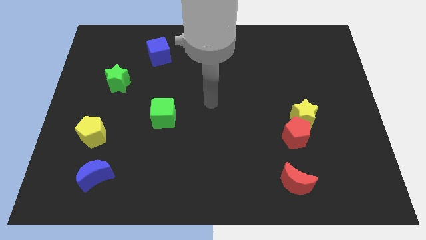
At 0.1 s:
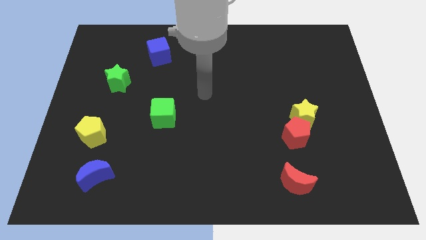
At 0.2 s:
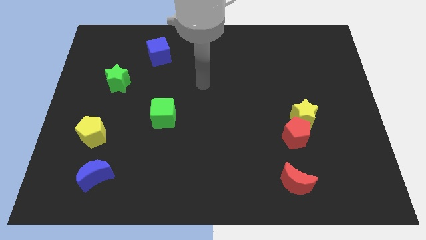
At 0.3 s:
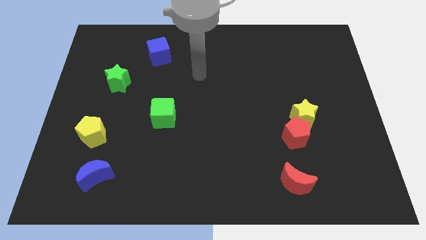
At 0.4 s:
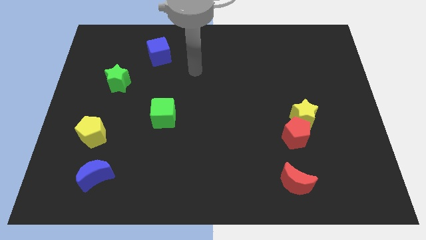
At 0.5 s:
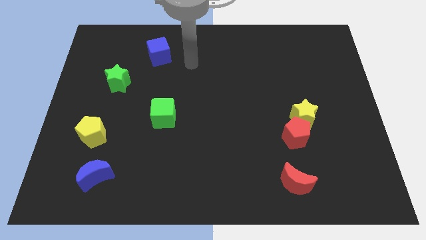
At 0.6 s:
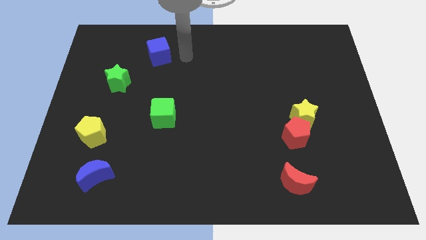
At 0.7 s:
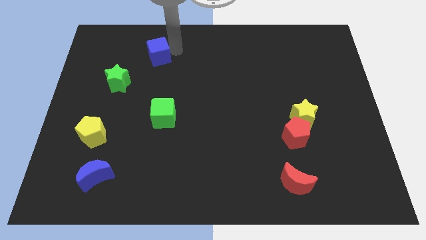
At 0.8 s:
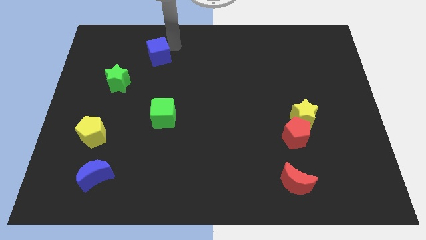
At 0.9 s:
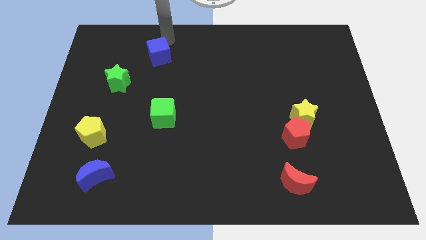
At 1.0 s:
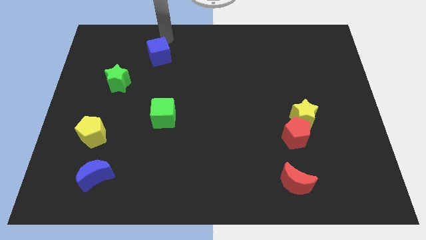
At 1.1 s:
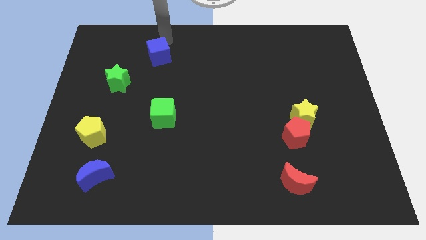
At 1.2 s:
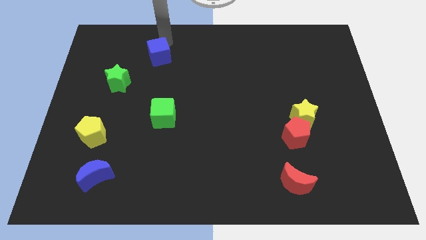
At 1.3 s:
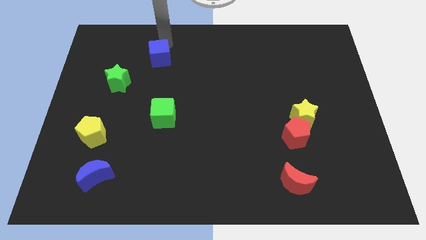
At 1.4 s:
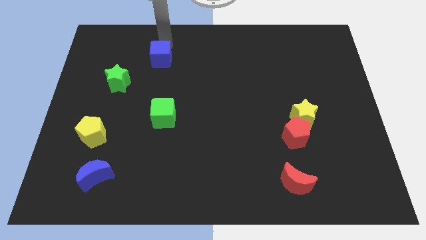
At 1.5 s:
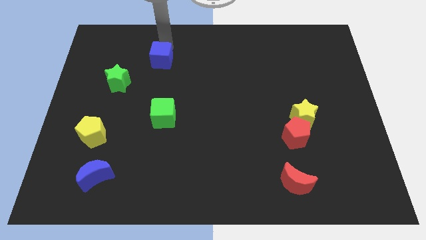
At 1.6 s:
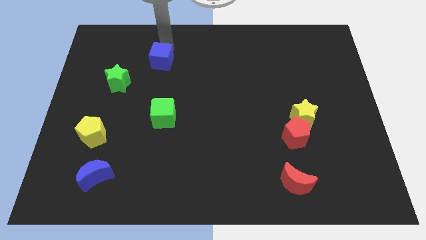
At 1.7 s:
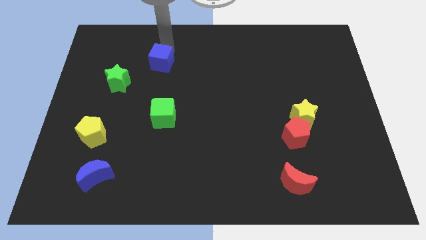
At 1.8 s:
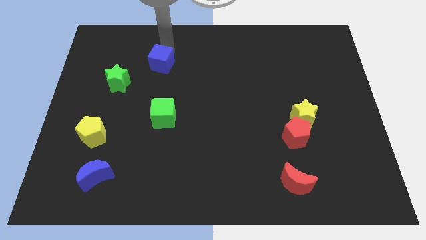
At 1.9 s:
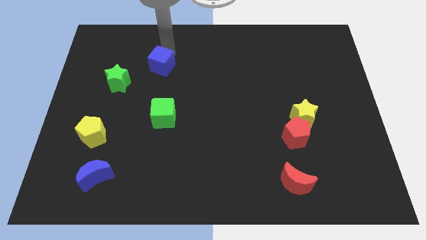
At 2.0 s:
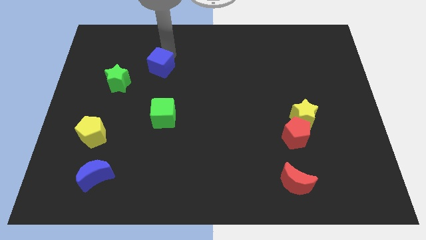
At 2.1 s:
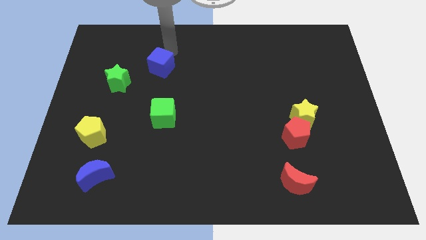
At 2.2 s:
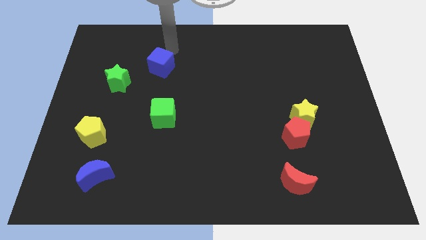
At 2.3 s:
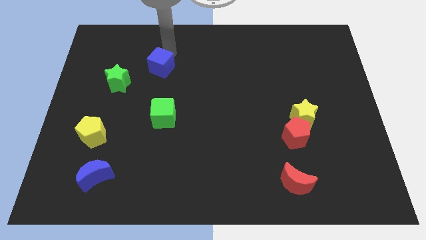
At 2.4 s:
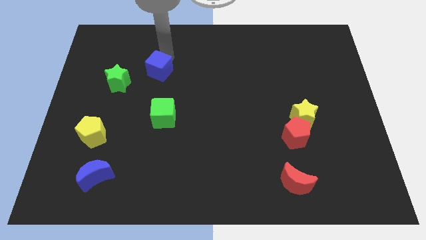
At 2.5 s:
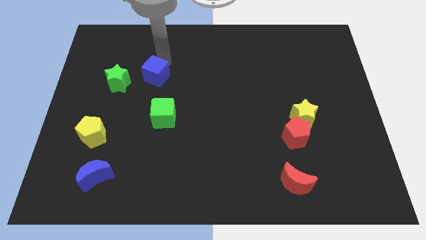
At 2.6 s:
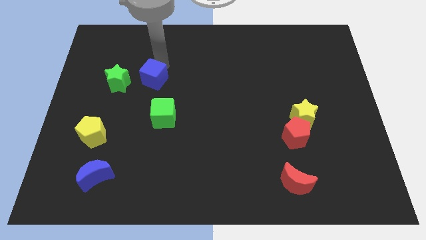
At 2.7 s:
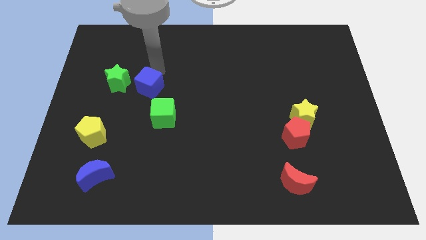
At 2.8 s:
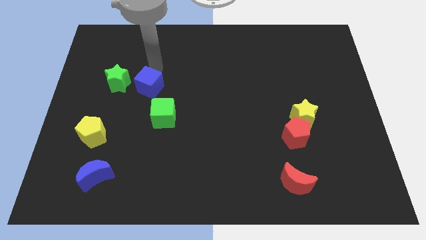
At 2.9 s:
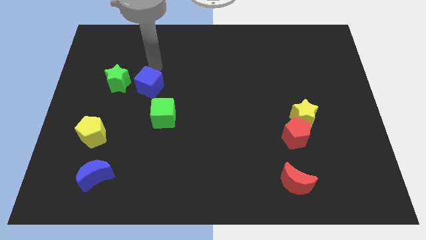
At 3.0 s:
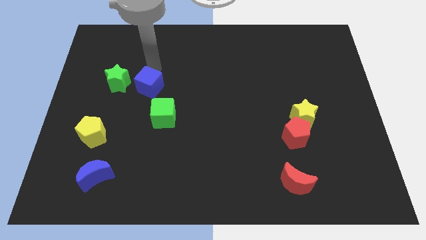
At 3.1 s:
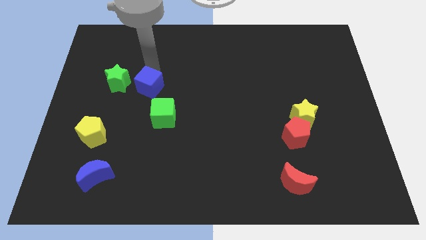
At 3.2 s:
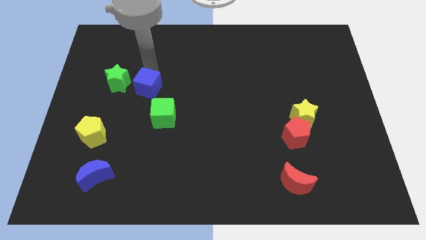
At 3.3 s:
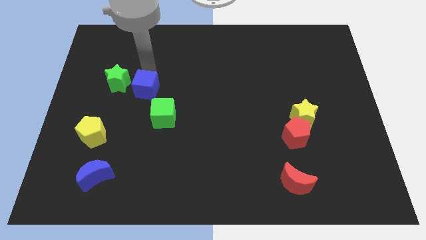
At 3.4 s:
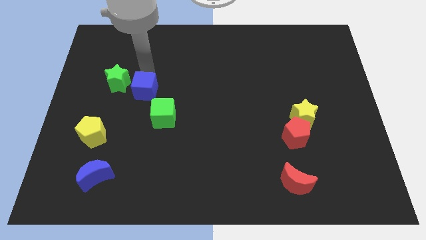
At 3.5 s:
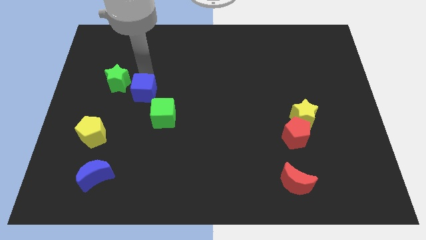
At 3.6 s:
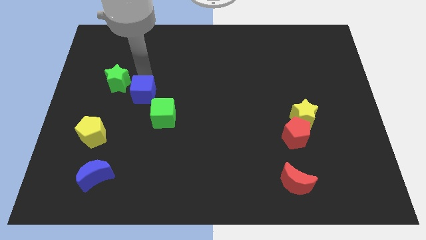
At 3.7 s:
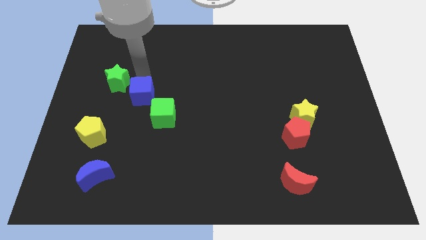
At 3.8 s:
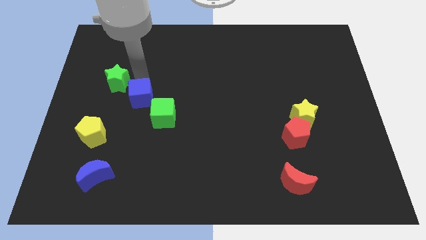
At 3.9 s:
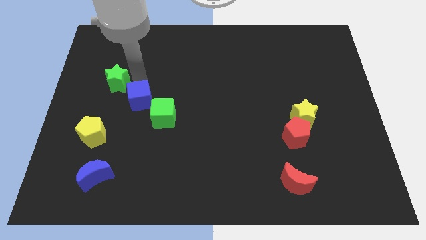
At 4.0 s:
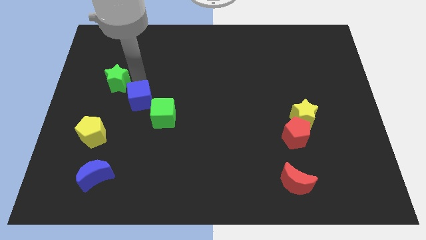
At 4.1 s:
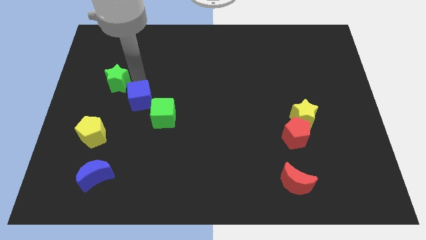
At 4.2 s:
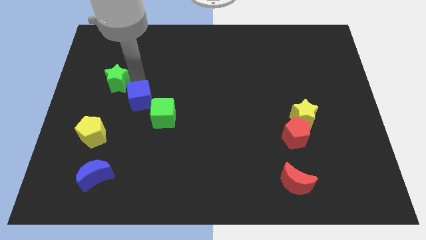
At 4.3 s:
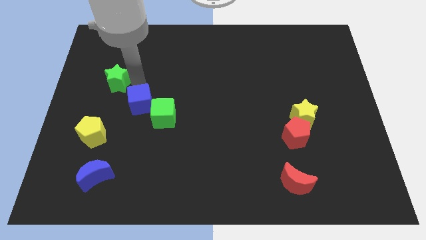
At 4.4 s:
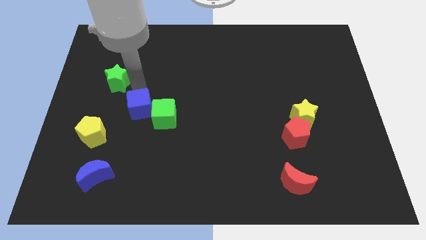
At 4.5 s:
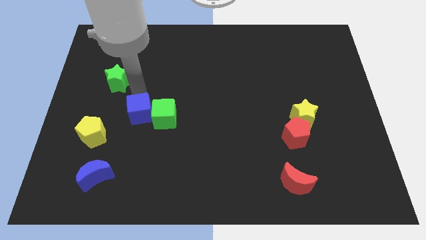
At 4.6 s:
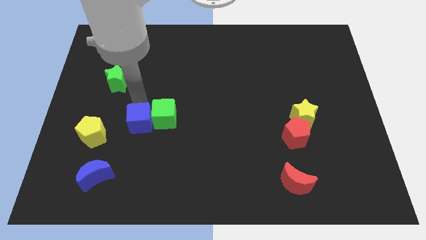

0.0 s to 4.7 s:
push the blue cube down

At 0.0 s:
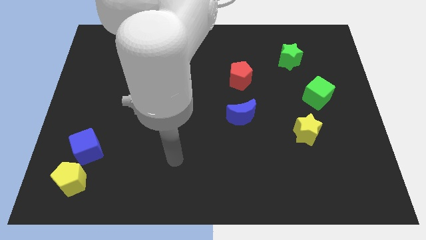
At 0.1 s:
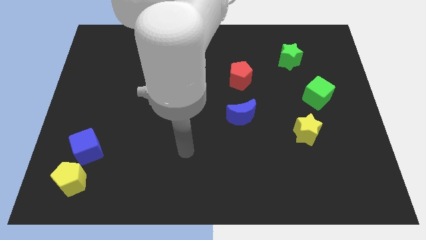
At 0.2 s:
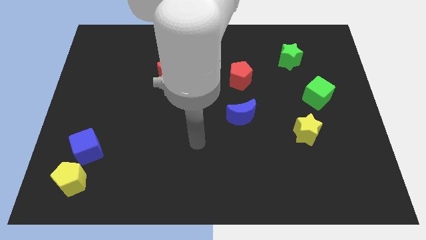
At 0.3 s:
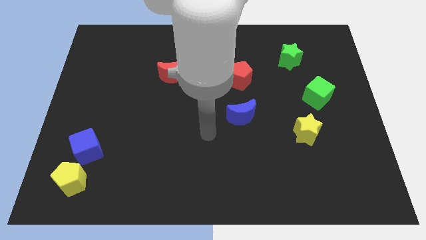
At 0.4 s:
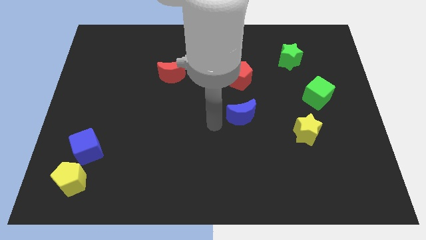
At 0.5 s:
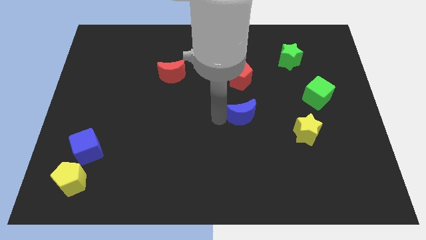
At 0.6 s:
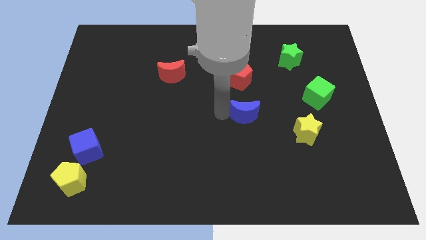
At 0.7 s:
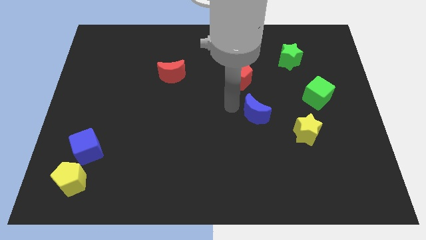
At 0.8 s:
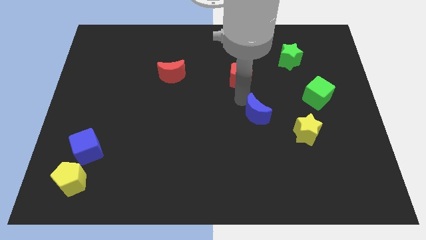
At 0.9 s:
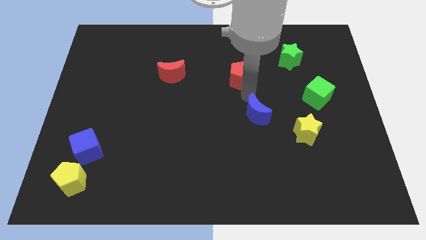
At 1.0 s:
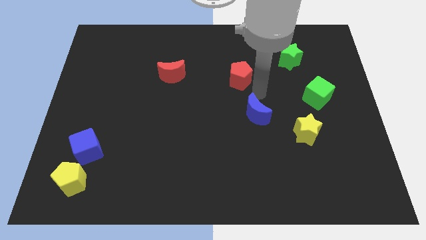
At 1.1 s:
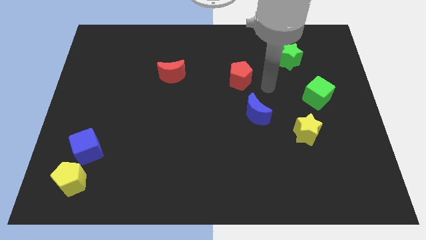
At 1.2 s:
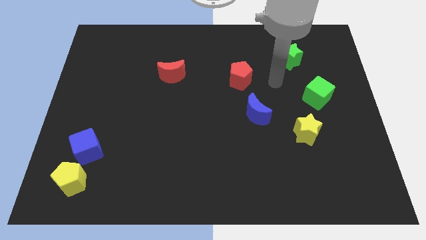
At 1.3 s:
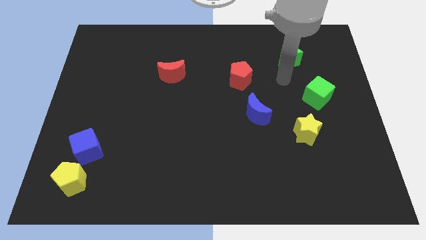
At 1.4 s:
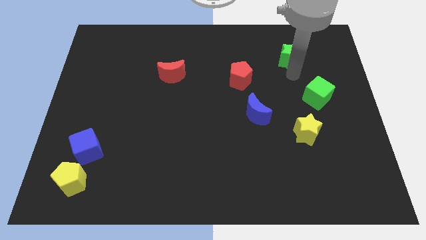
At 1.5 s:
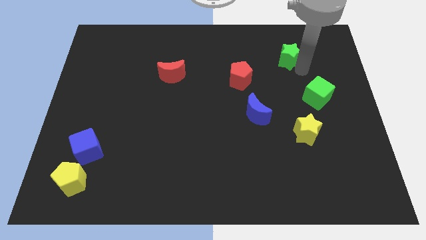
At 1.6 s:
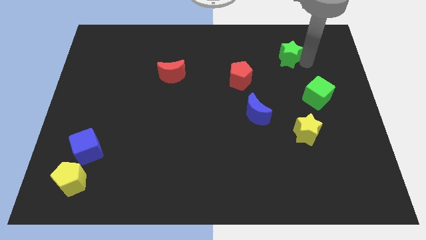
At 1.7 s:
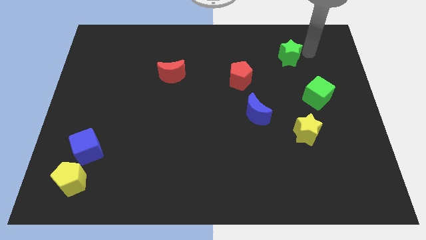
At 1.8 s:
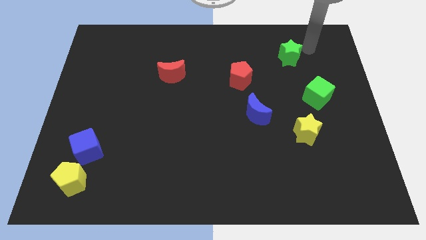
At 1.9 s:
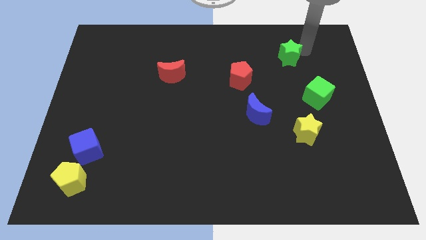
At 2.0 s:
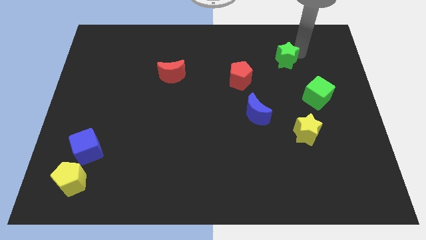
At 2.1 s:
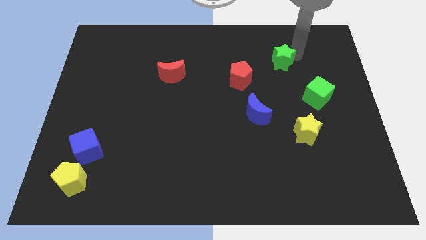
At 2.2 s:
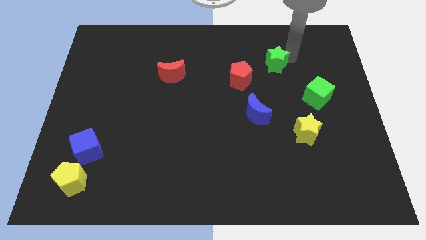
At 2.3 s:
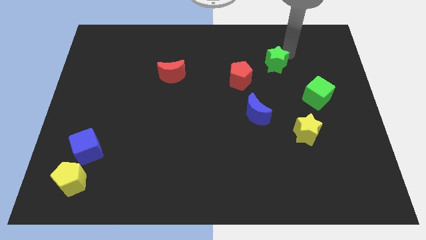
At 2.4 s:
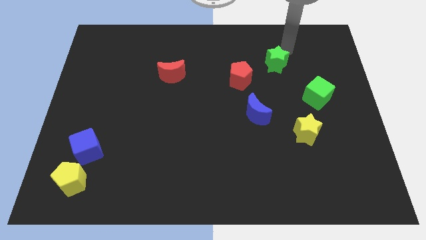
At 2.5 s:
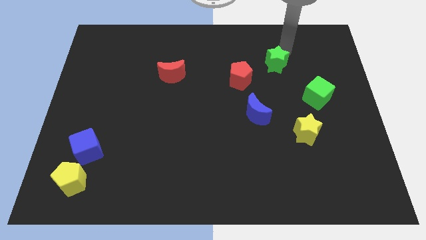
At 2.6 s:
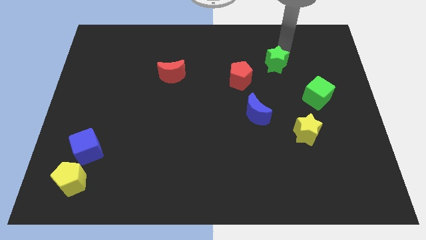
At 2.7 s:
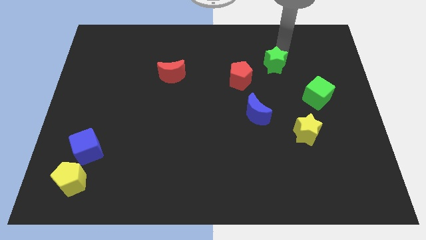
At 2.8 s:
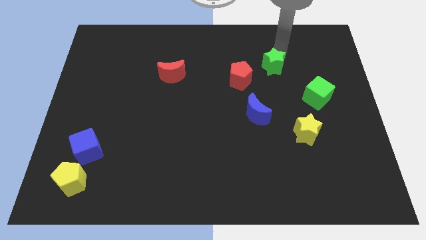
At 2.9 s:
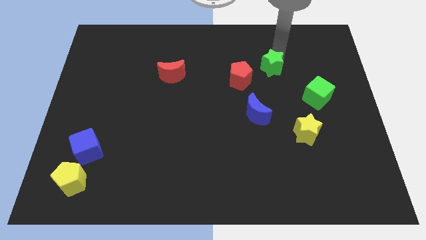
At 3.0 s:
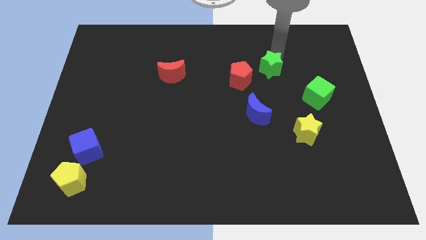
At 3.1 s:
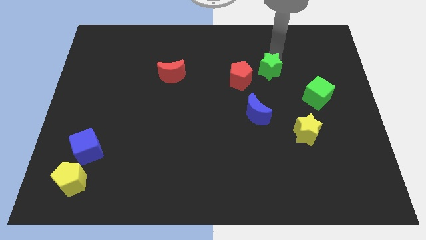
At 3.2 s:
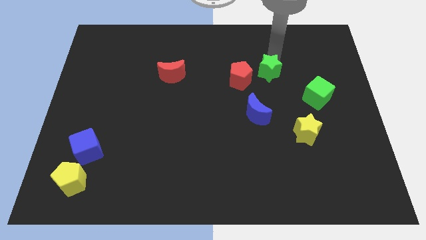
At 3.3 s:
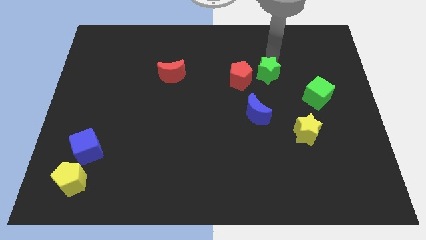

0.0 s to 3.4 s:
slide the green star down and left diagonally a bit

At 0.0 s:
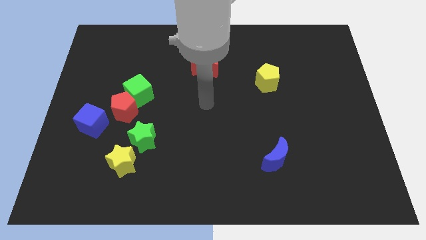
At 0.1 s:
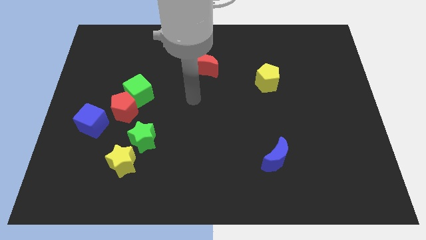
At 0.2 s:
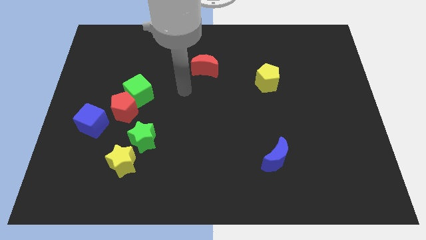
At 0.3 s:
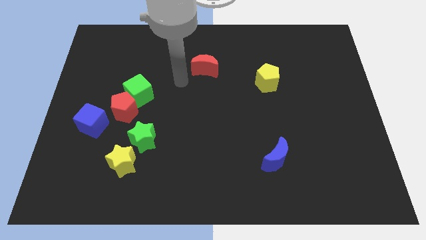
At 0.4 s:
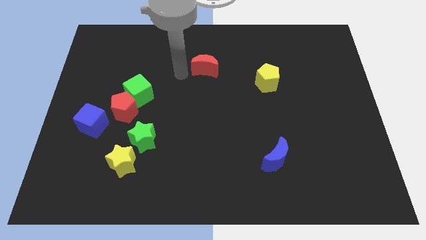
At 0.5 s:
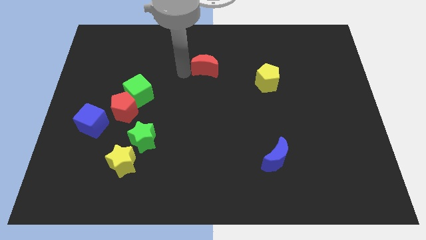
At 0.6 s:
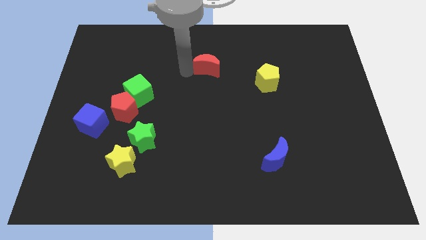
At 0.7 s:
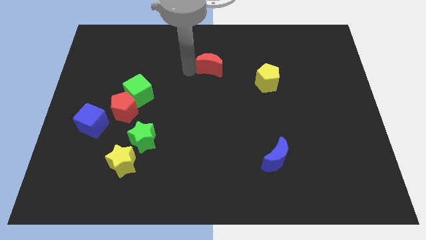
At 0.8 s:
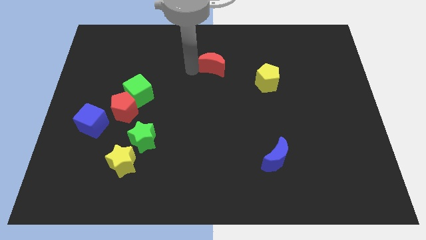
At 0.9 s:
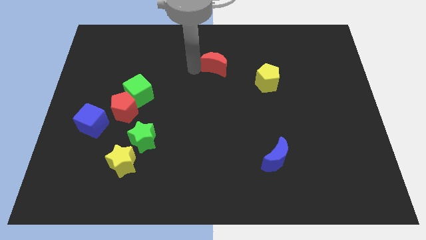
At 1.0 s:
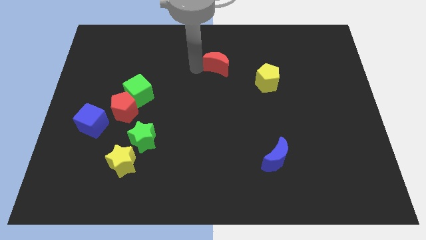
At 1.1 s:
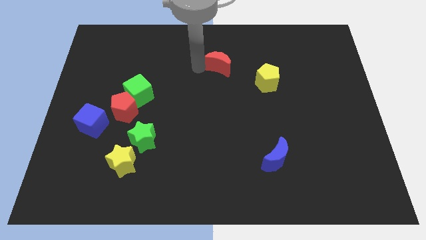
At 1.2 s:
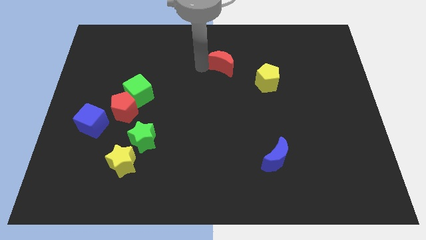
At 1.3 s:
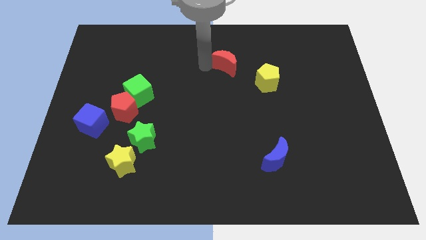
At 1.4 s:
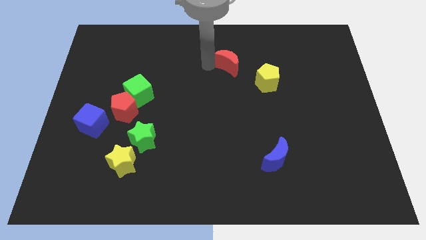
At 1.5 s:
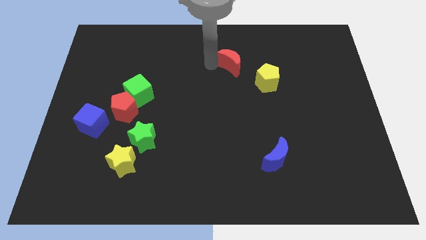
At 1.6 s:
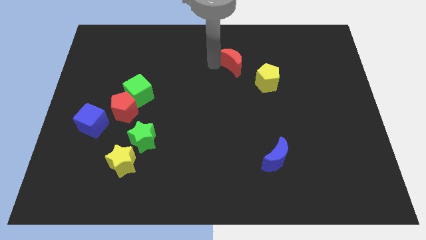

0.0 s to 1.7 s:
push the red moon to the right a little
